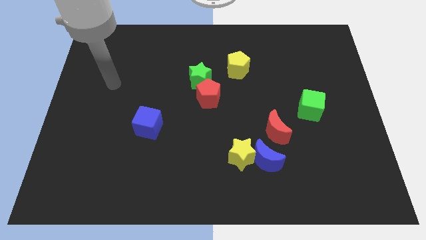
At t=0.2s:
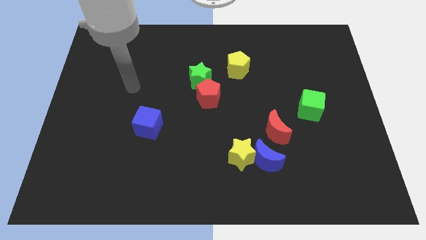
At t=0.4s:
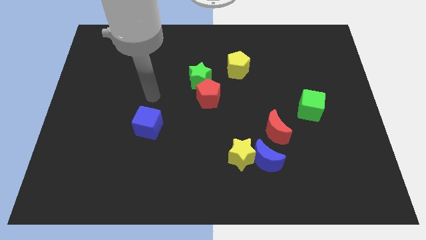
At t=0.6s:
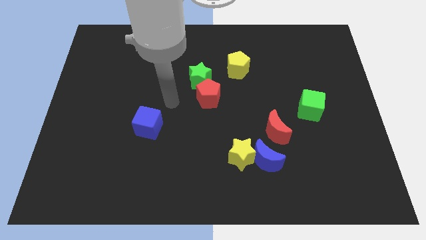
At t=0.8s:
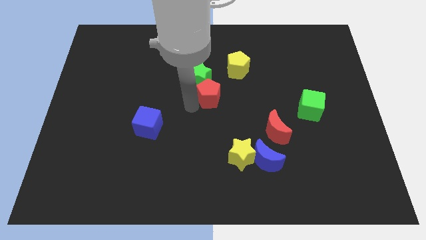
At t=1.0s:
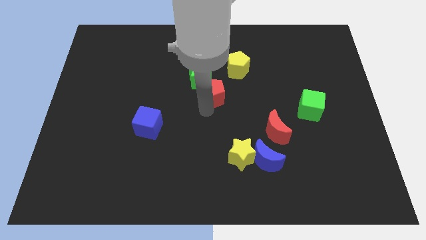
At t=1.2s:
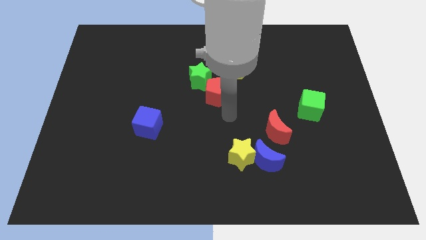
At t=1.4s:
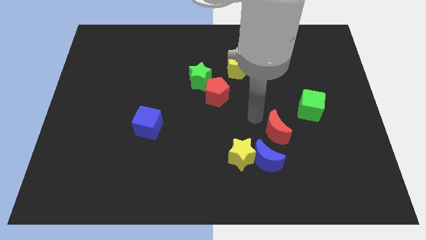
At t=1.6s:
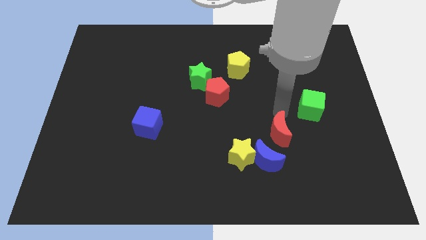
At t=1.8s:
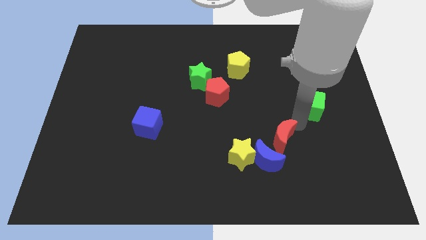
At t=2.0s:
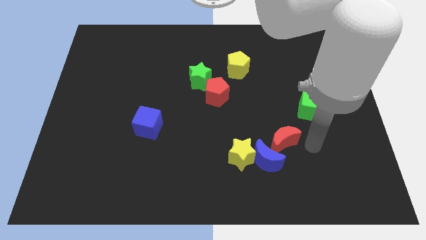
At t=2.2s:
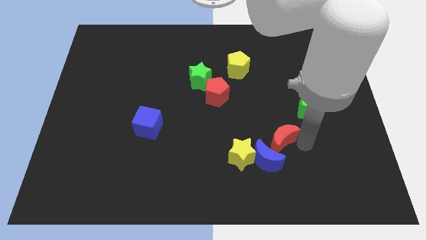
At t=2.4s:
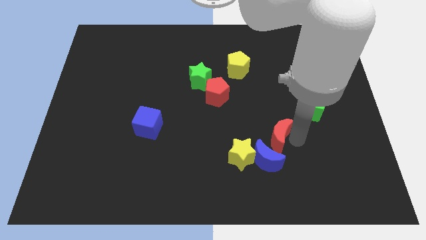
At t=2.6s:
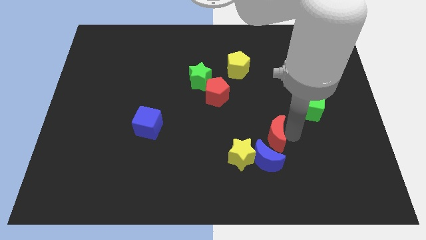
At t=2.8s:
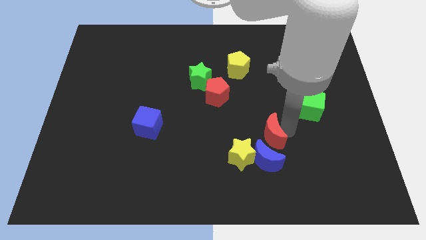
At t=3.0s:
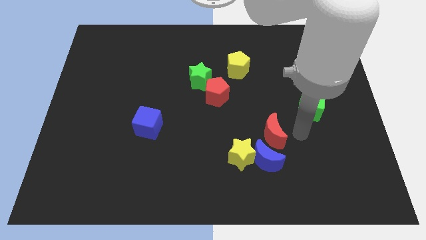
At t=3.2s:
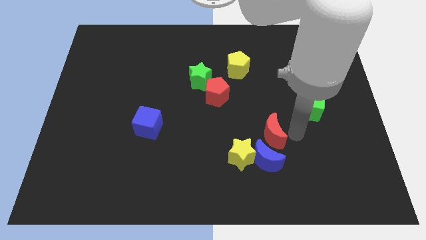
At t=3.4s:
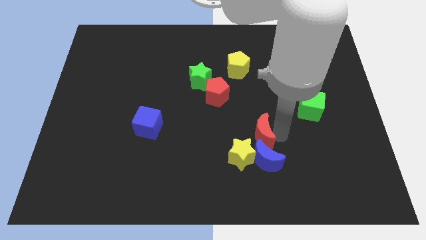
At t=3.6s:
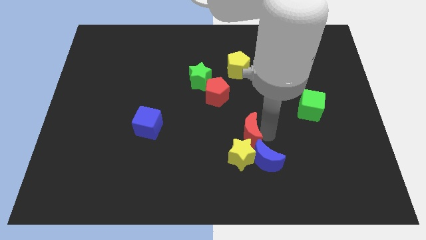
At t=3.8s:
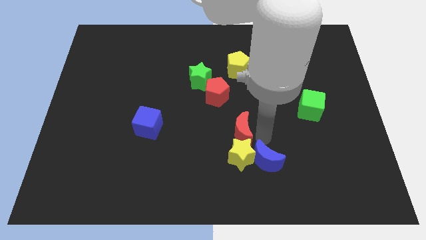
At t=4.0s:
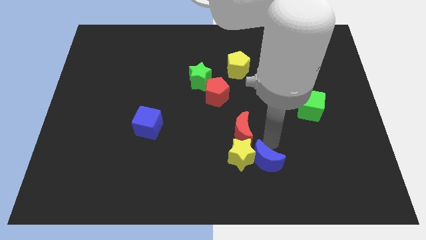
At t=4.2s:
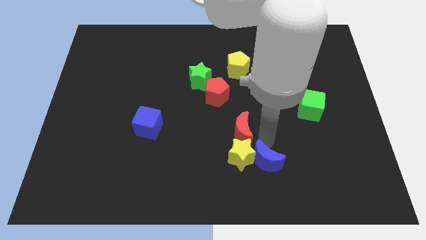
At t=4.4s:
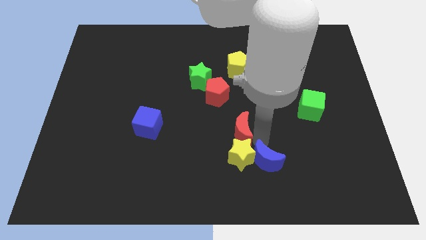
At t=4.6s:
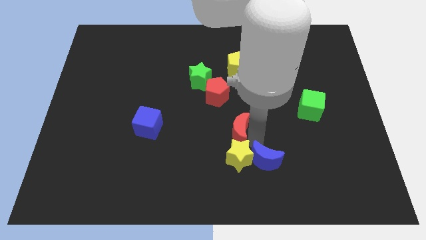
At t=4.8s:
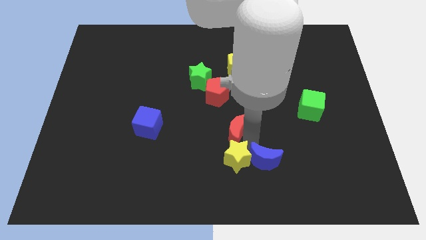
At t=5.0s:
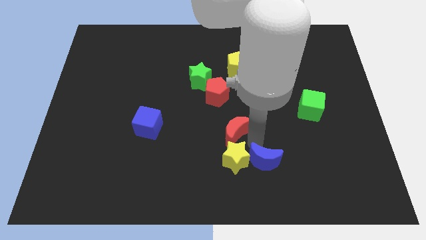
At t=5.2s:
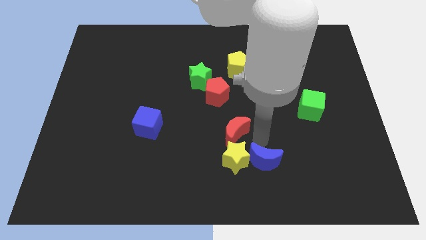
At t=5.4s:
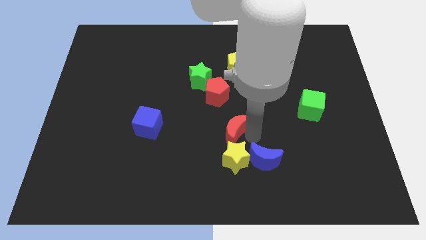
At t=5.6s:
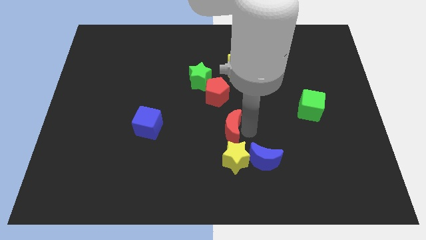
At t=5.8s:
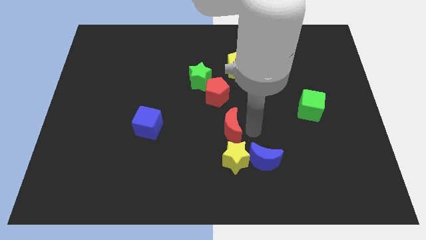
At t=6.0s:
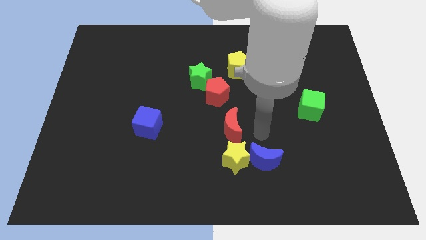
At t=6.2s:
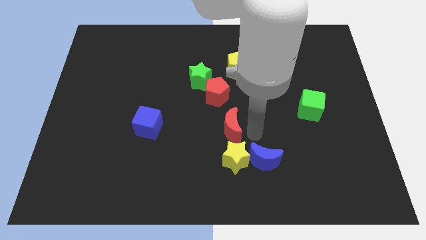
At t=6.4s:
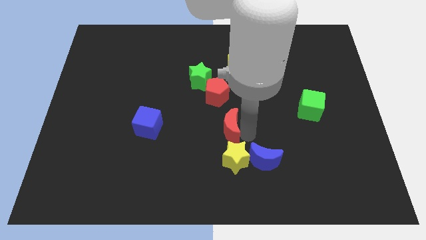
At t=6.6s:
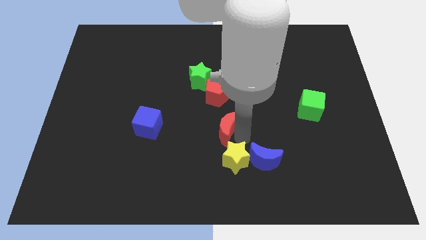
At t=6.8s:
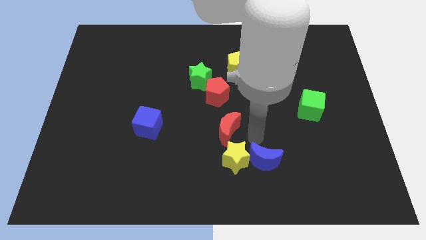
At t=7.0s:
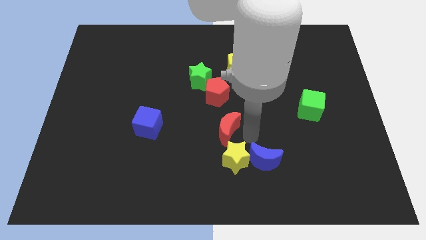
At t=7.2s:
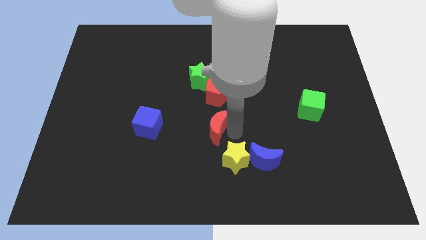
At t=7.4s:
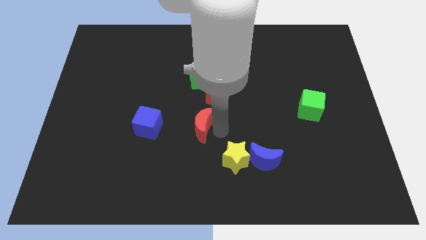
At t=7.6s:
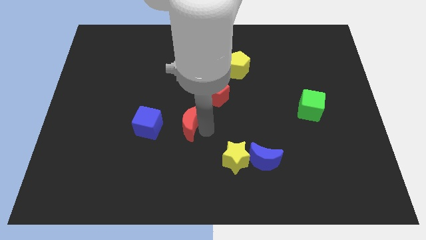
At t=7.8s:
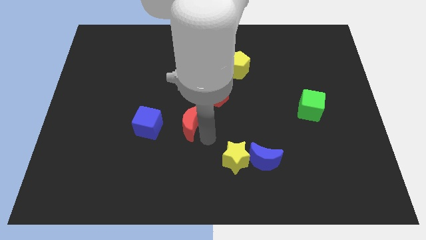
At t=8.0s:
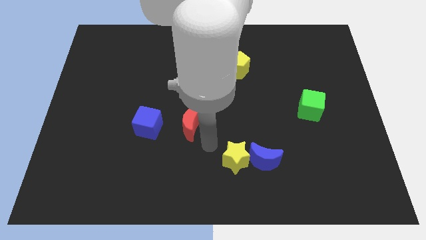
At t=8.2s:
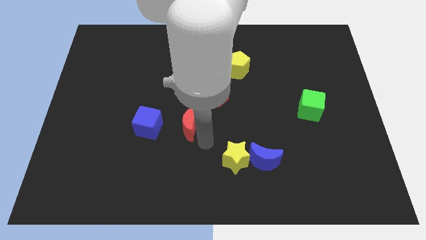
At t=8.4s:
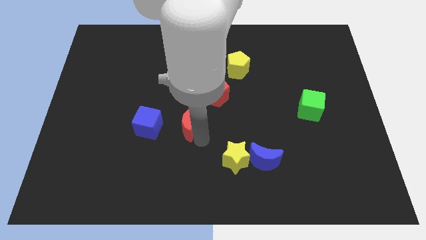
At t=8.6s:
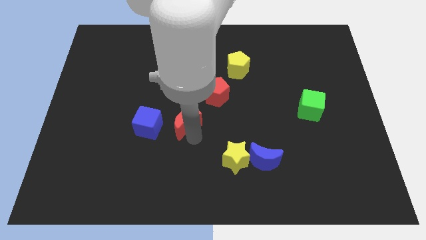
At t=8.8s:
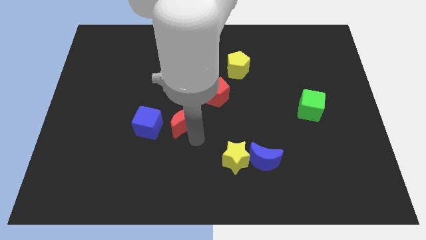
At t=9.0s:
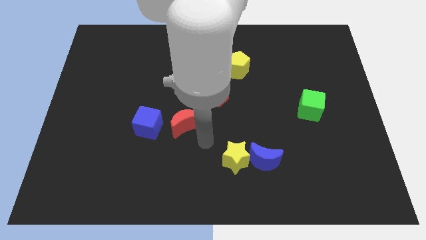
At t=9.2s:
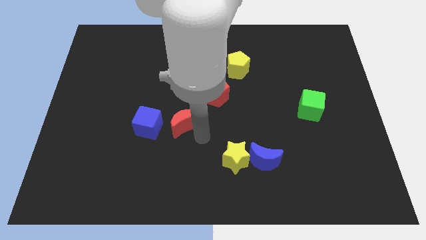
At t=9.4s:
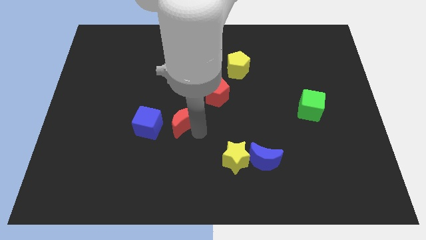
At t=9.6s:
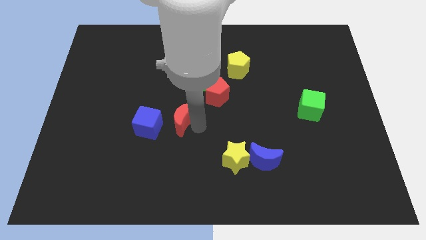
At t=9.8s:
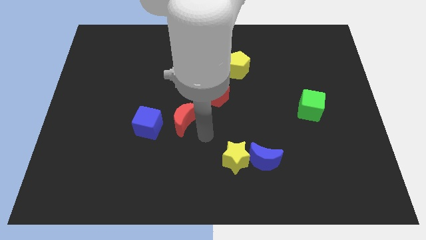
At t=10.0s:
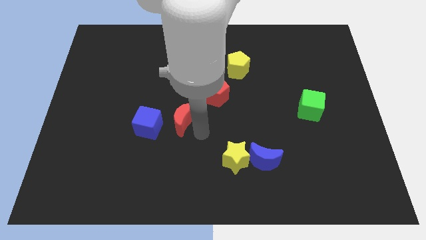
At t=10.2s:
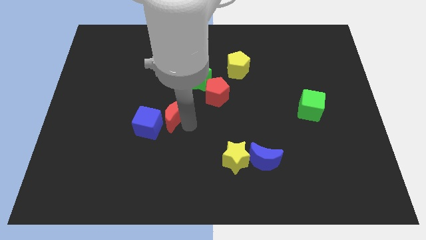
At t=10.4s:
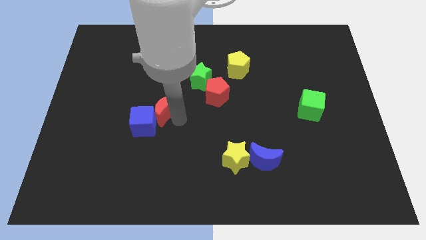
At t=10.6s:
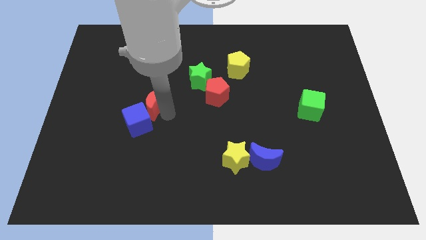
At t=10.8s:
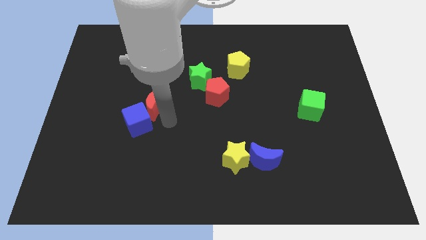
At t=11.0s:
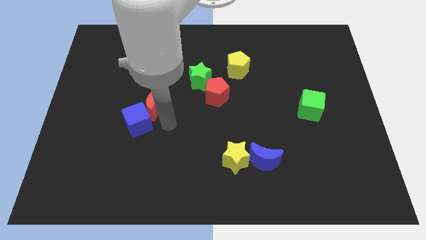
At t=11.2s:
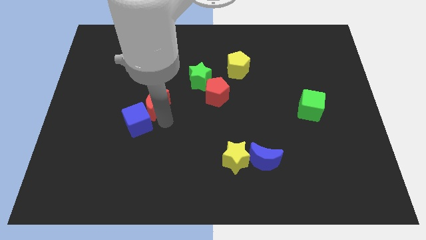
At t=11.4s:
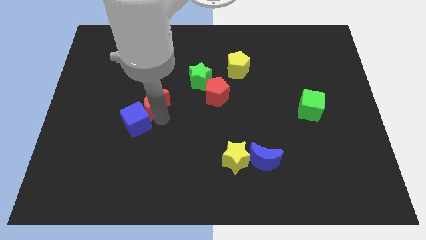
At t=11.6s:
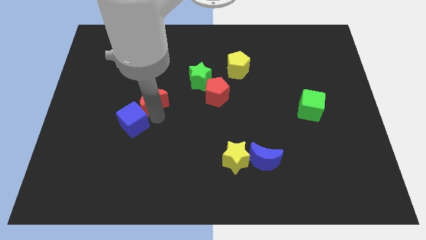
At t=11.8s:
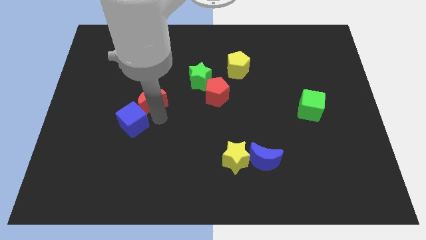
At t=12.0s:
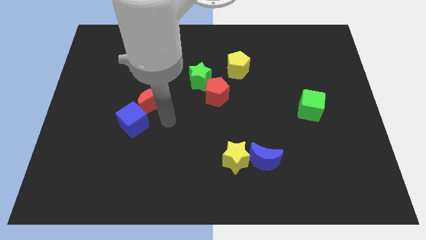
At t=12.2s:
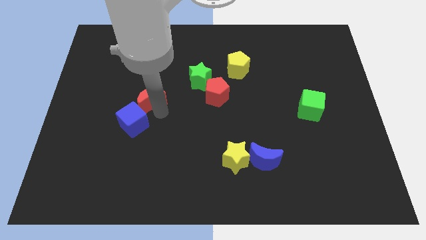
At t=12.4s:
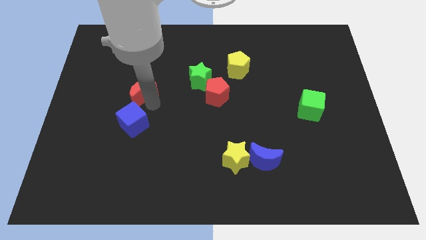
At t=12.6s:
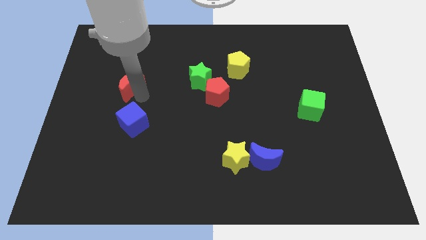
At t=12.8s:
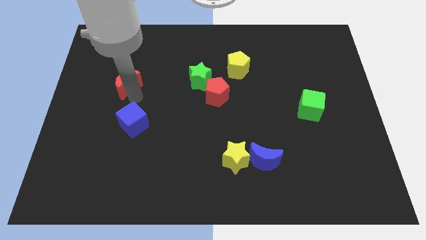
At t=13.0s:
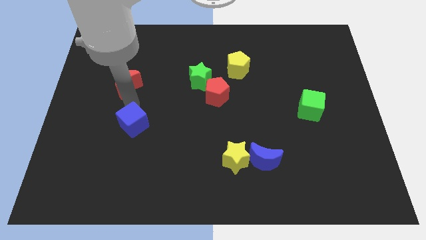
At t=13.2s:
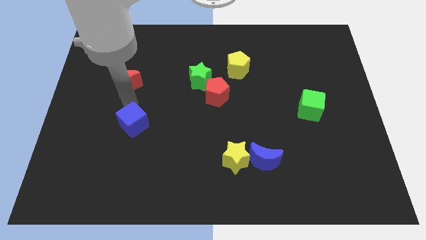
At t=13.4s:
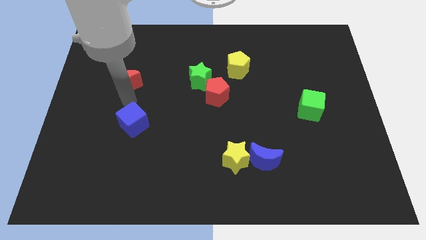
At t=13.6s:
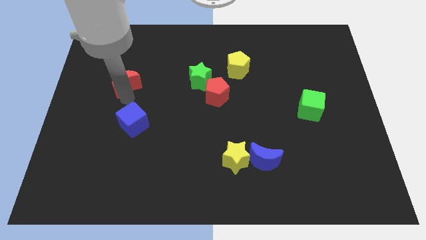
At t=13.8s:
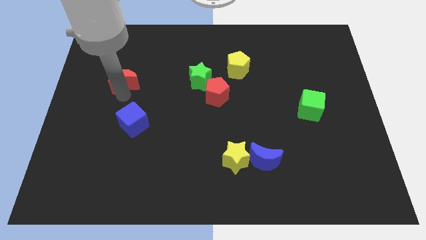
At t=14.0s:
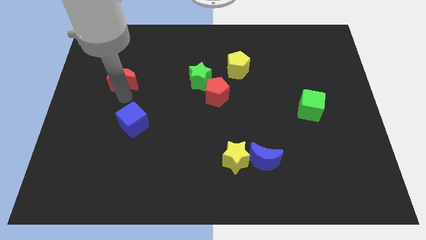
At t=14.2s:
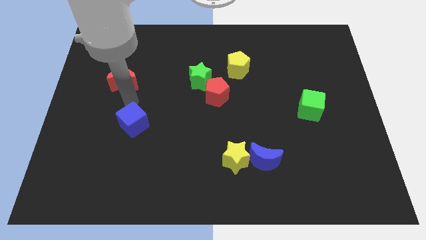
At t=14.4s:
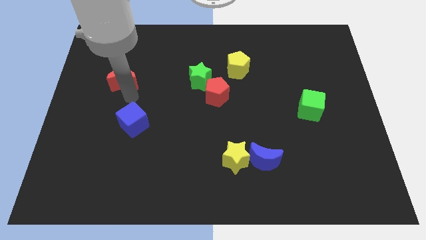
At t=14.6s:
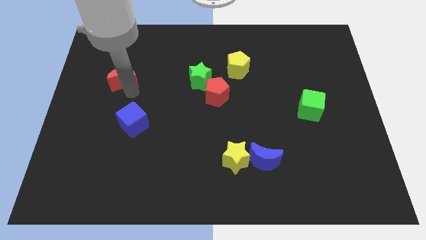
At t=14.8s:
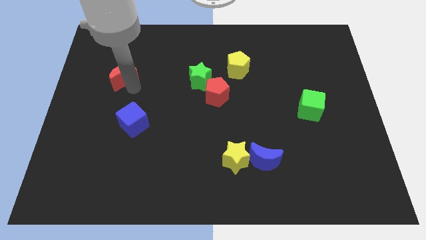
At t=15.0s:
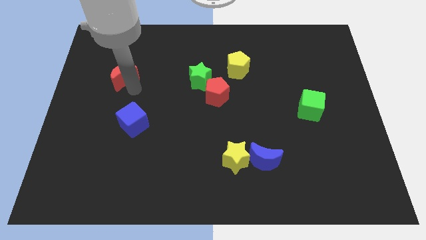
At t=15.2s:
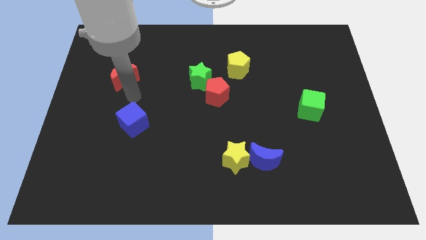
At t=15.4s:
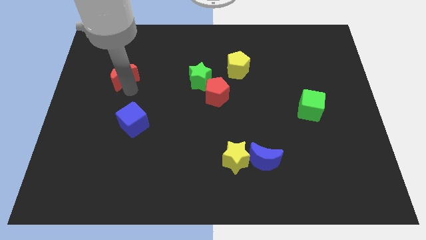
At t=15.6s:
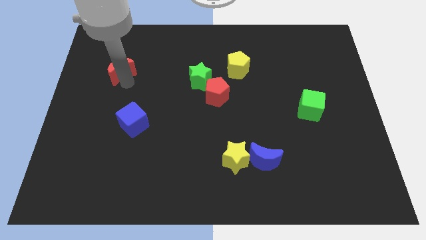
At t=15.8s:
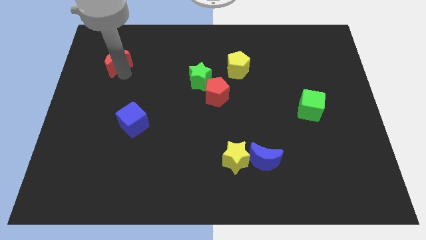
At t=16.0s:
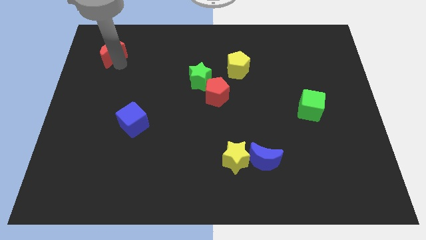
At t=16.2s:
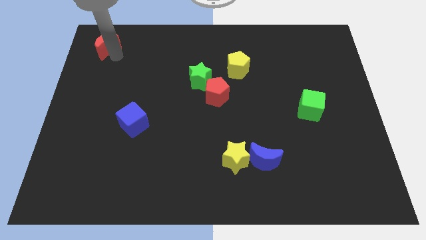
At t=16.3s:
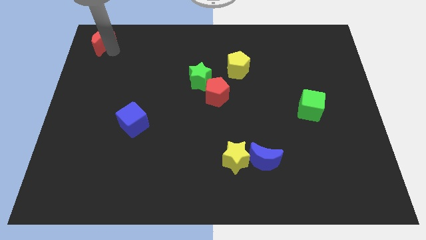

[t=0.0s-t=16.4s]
move the red moon to the top left of the board
